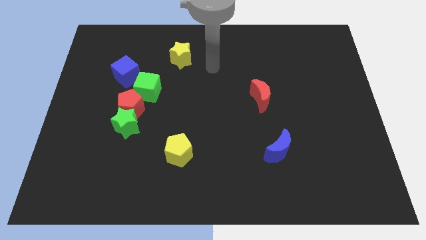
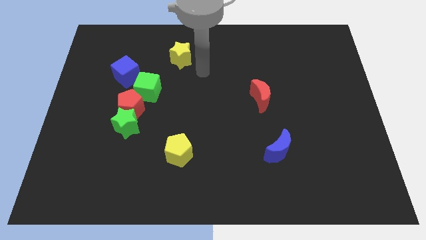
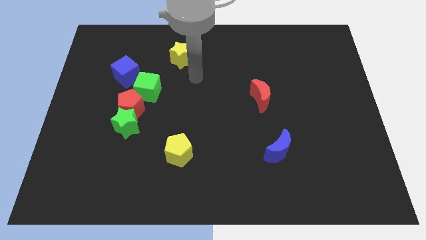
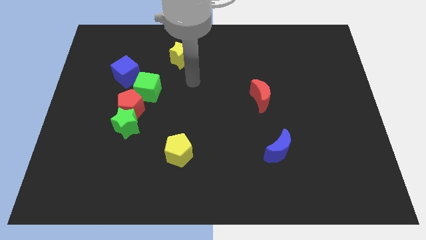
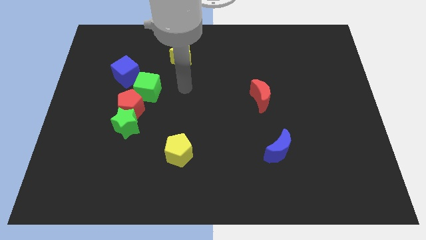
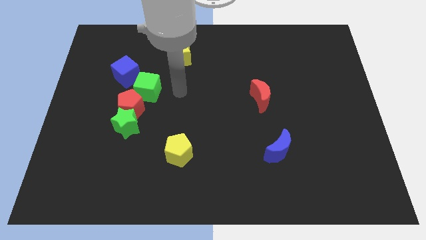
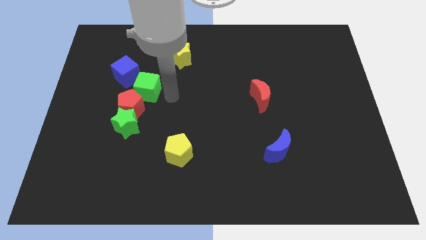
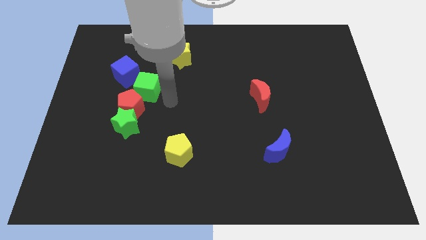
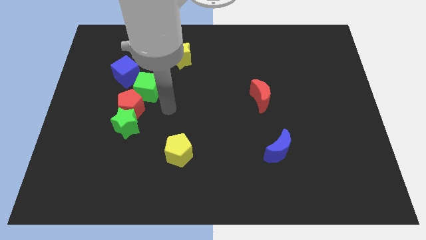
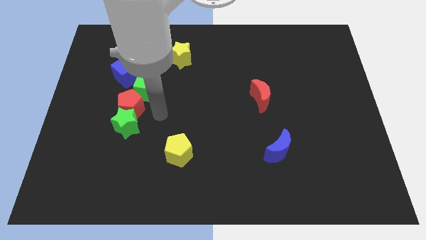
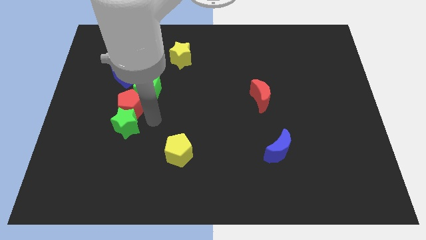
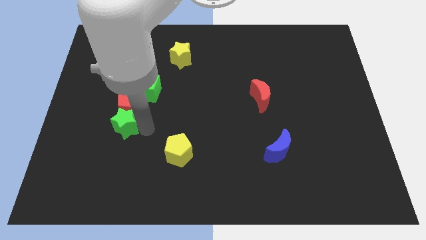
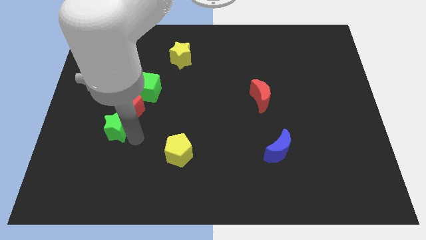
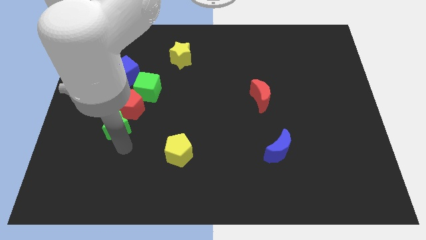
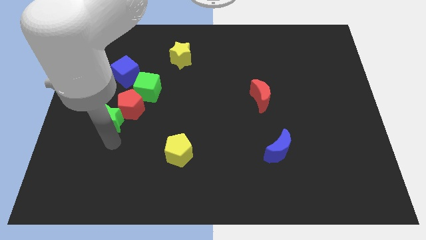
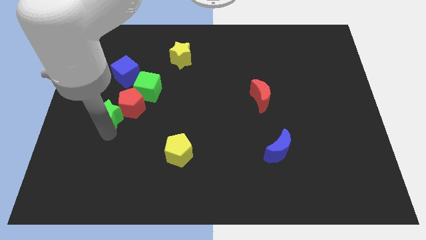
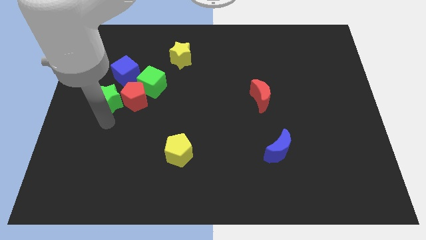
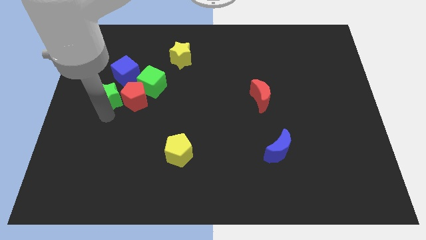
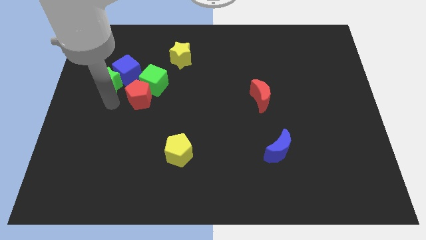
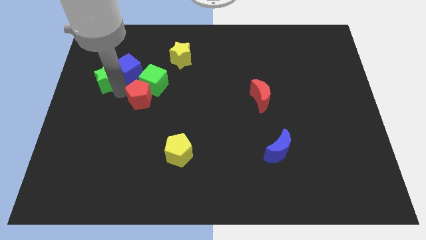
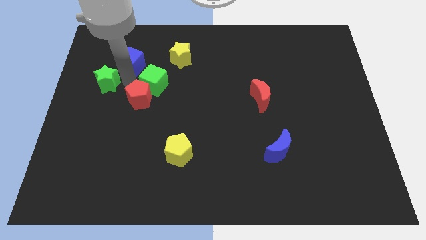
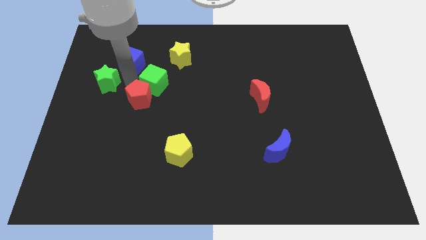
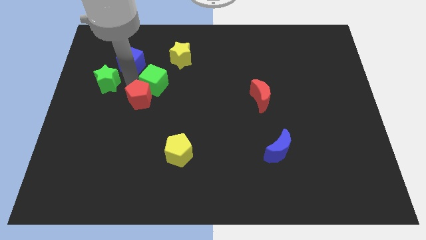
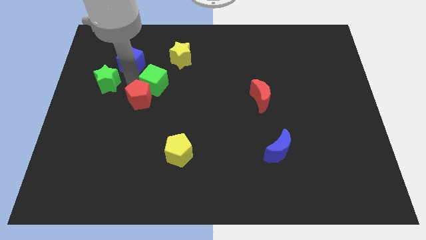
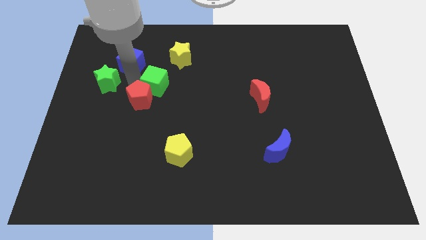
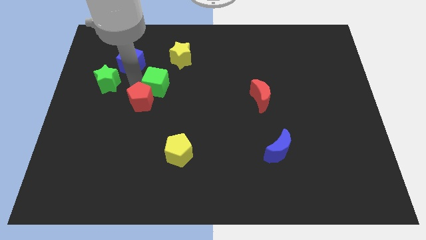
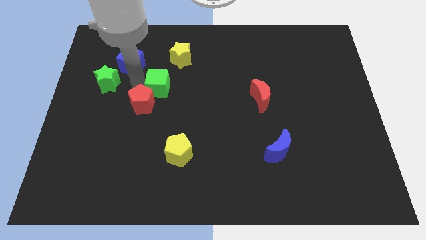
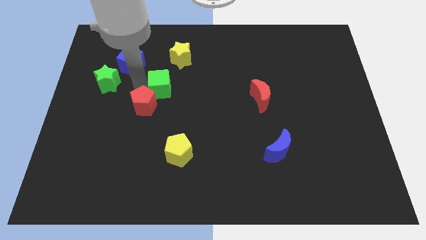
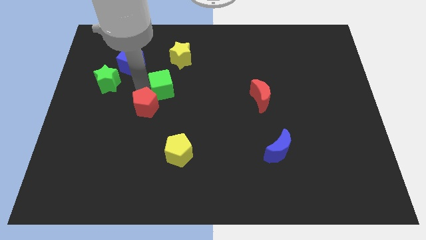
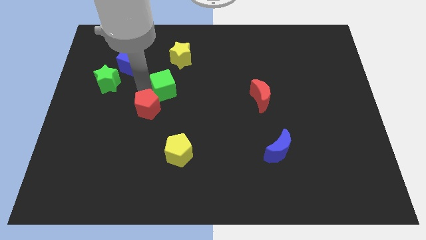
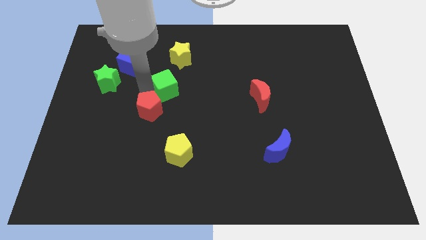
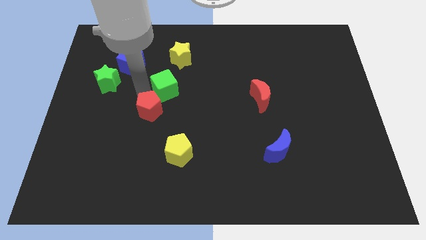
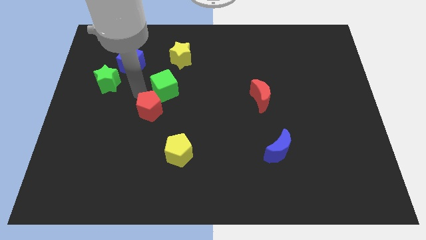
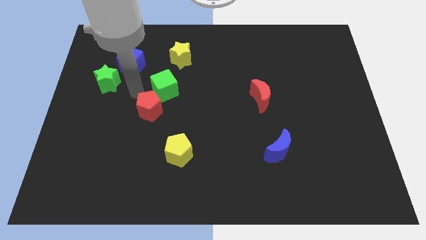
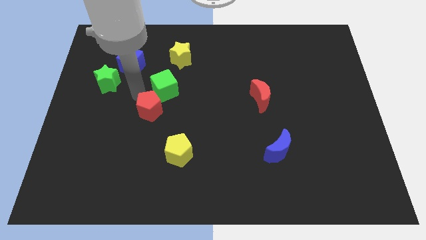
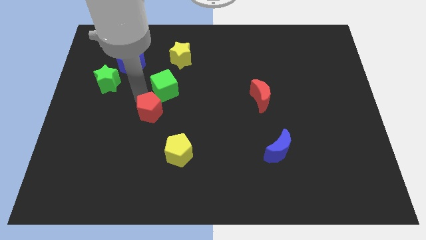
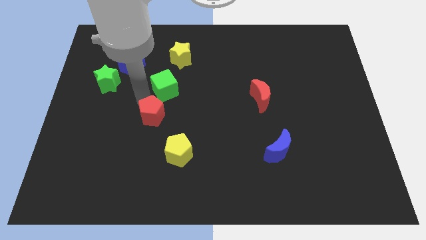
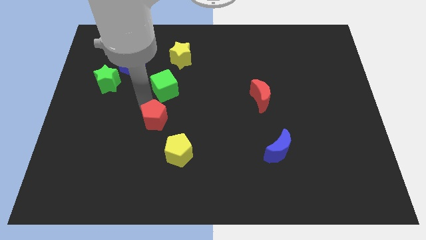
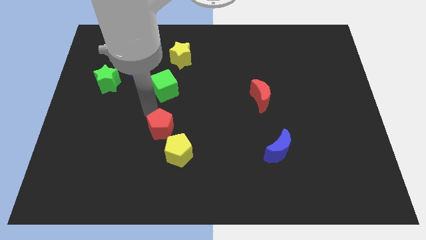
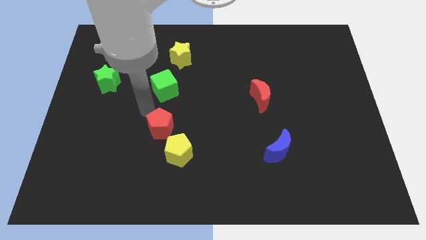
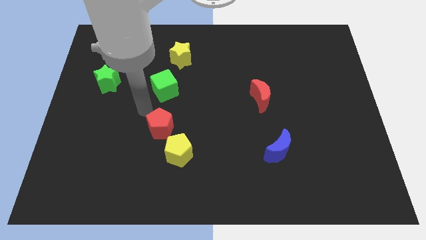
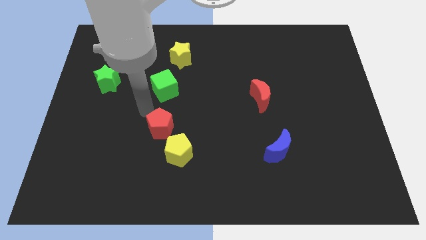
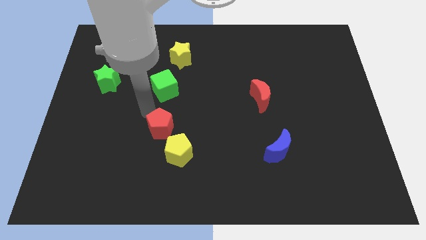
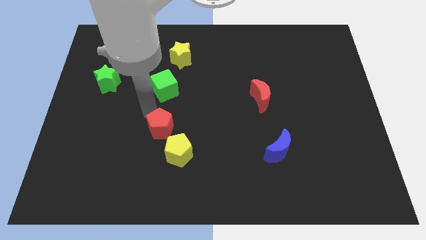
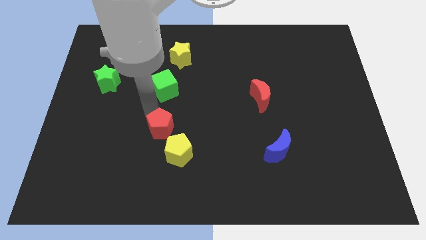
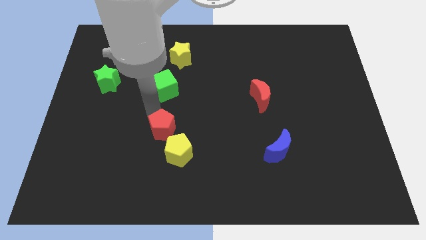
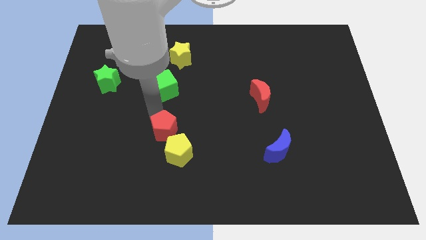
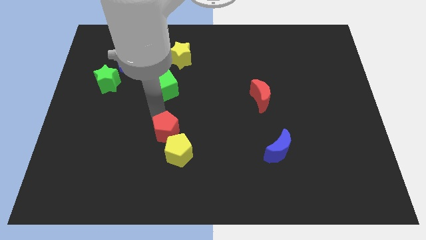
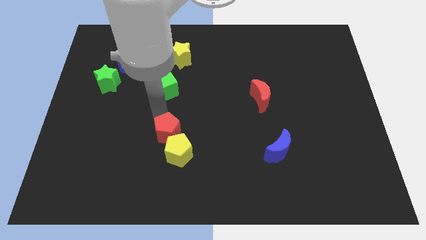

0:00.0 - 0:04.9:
move the red pentagon to the yellow pentagon

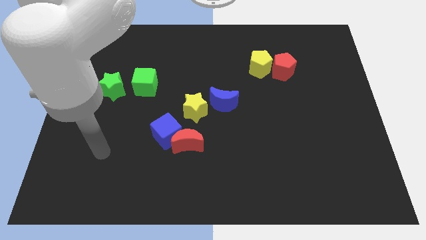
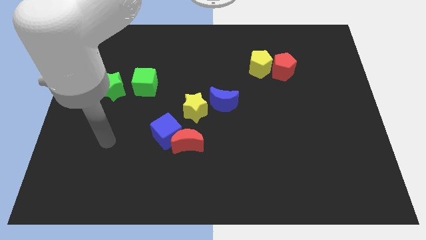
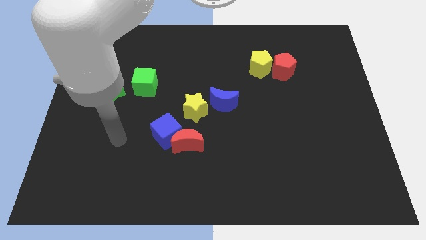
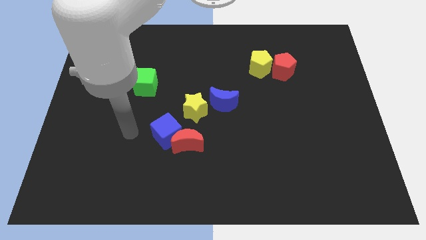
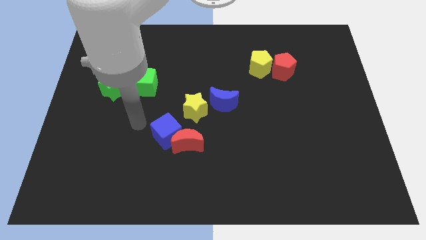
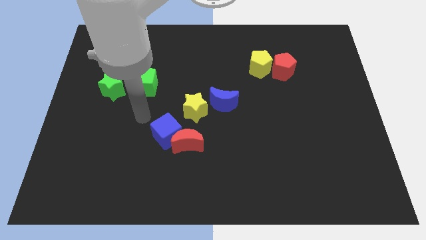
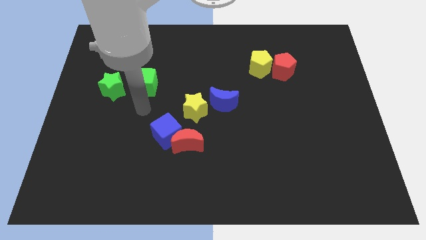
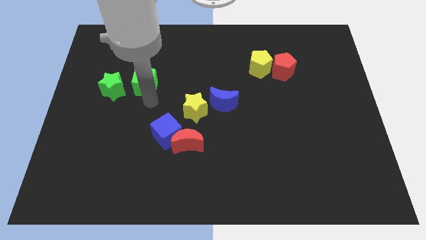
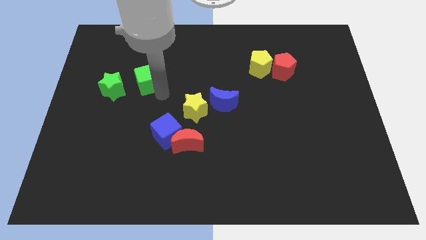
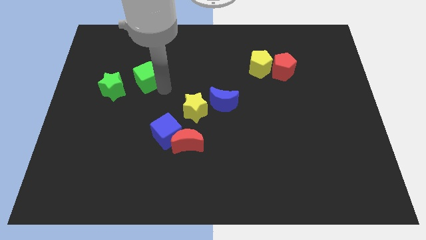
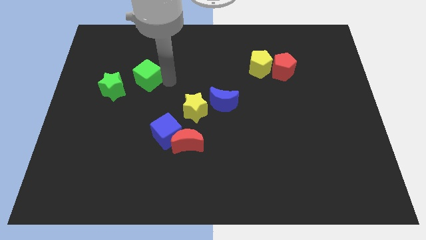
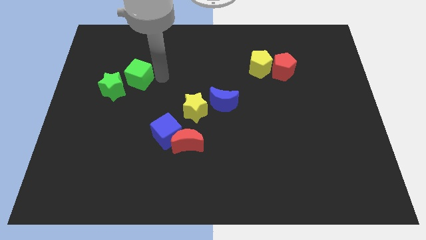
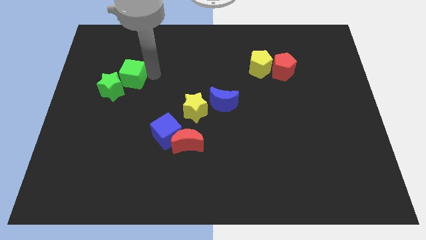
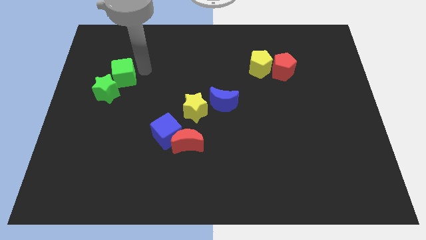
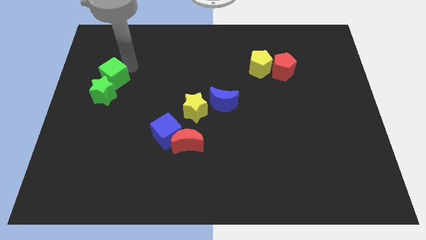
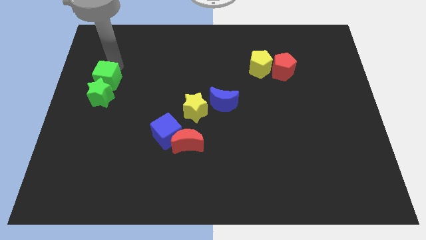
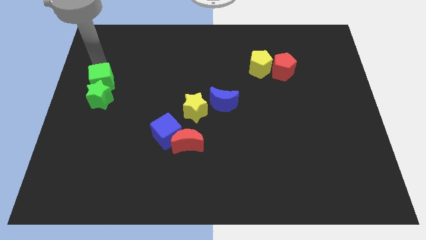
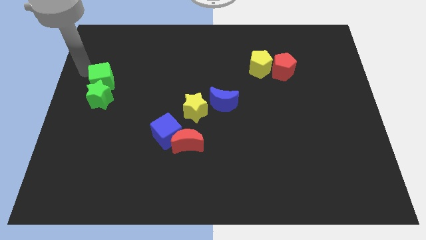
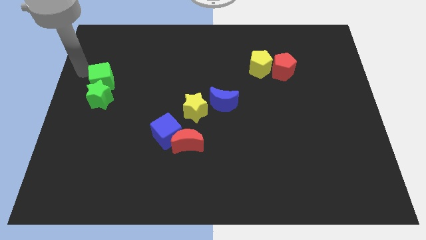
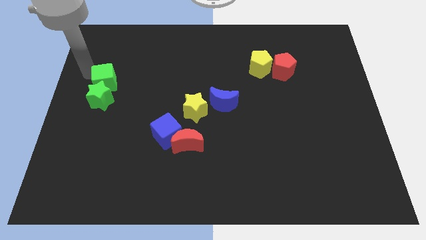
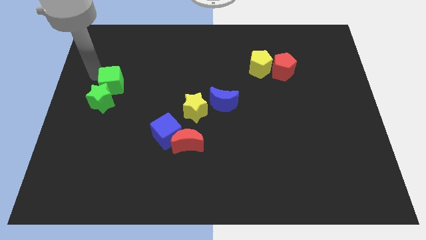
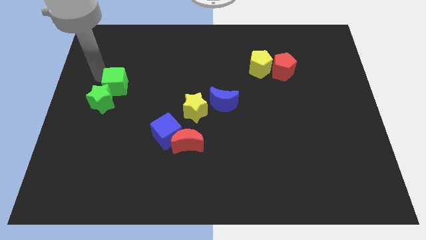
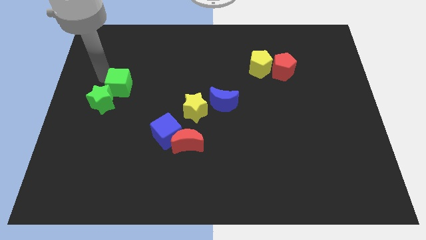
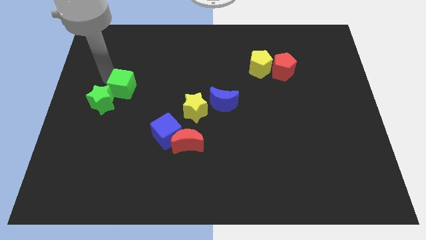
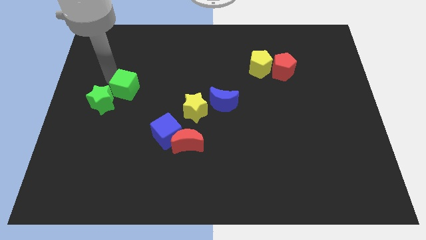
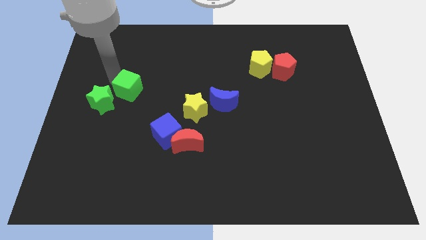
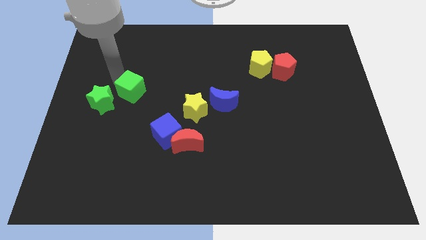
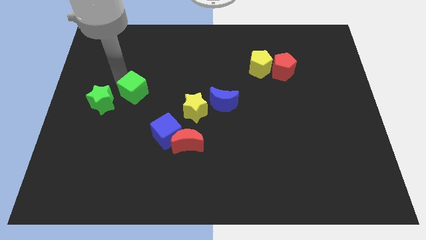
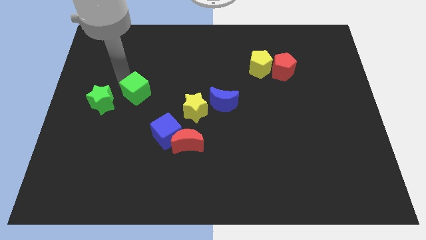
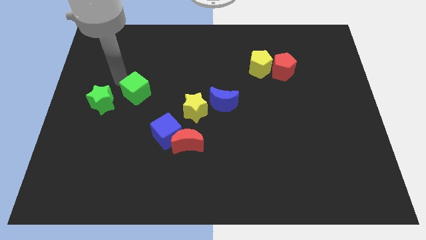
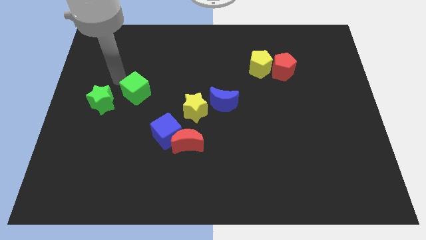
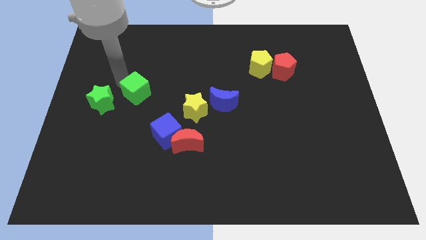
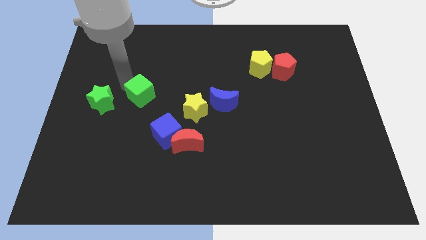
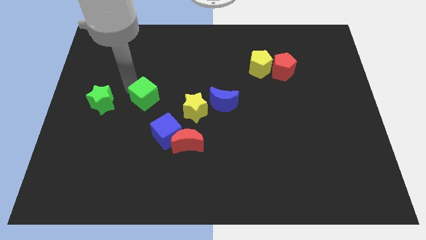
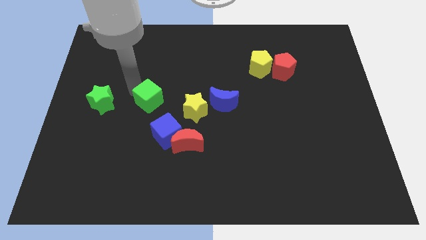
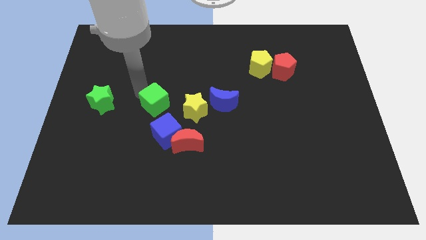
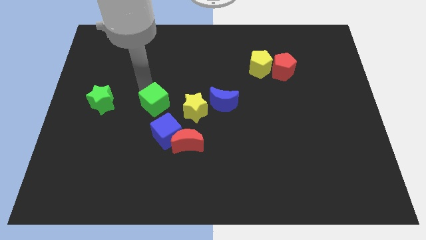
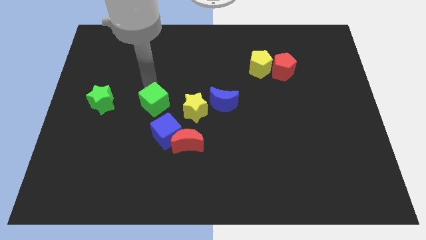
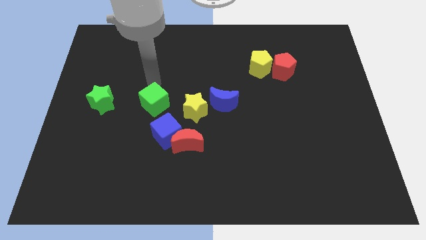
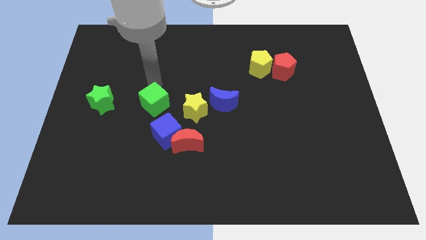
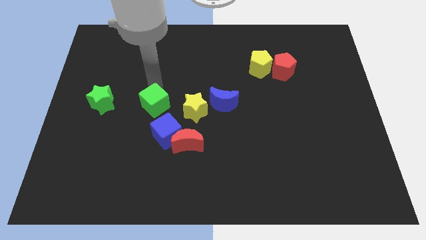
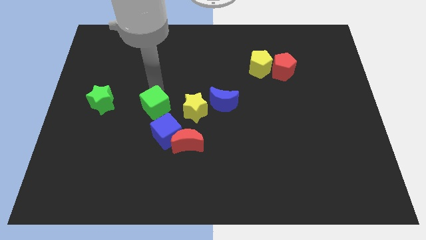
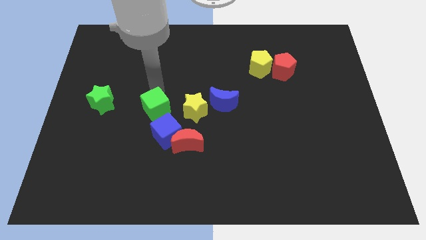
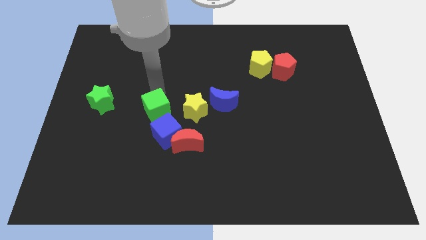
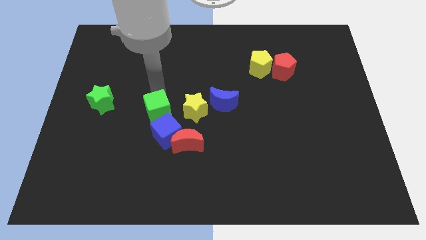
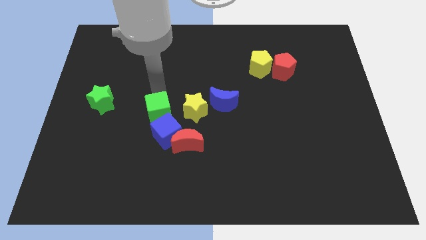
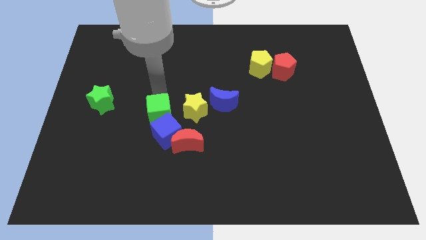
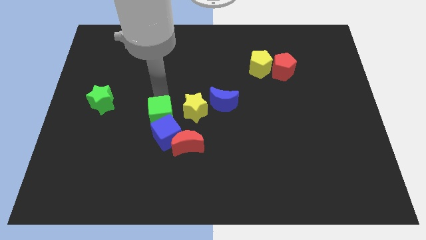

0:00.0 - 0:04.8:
put the green cube close to the blue cube
